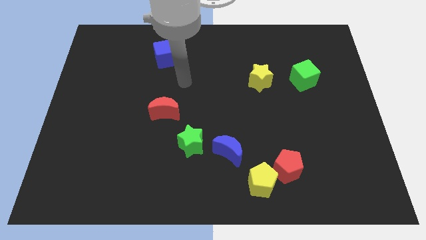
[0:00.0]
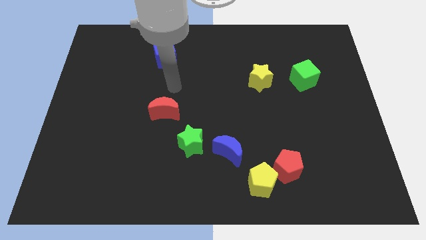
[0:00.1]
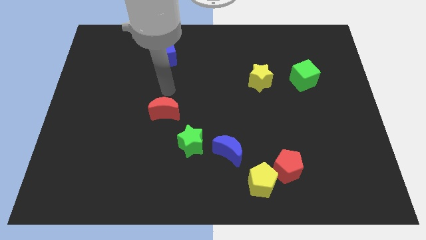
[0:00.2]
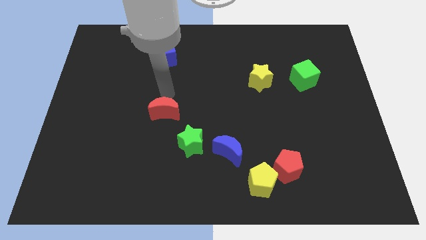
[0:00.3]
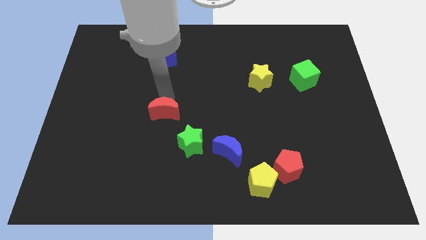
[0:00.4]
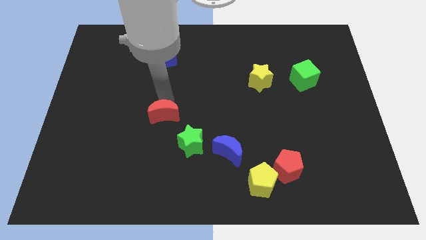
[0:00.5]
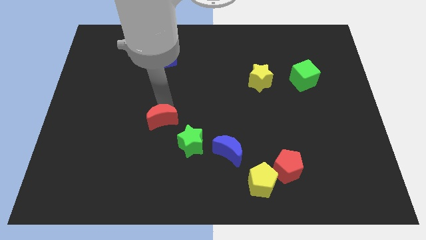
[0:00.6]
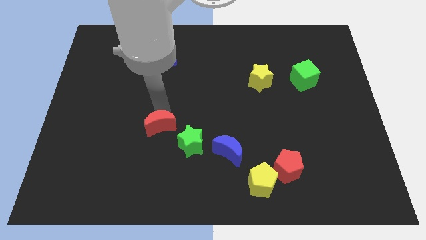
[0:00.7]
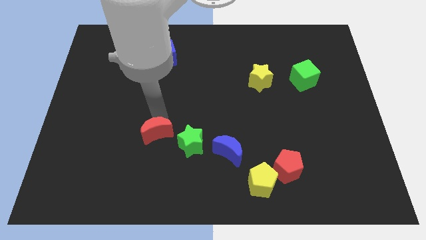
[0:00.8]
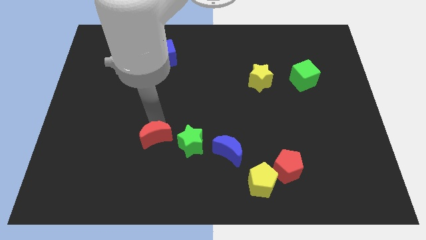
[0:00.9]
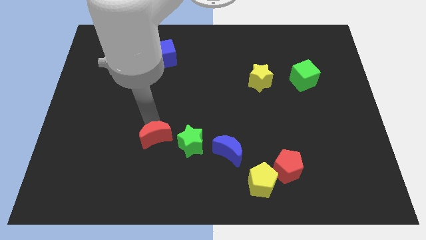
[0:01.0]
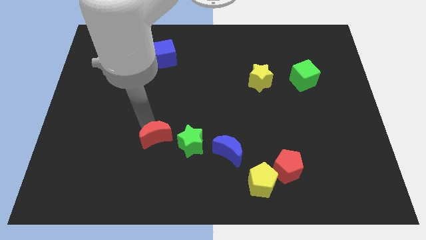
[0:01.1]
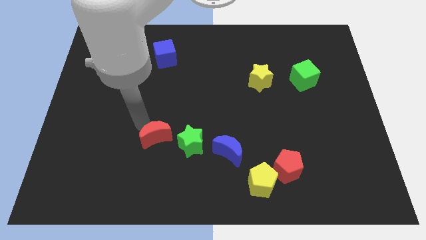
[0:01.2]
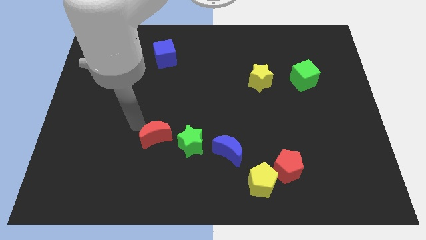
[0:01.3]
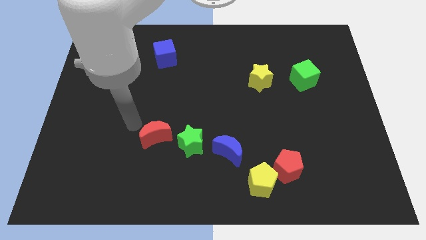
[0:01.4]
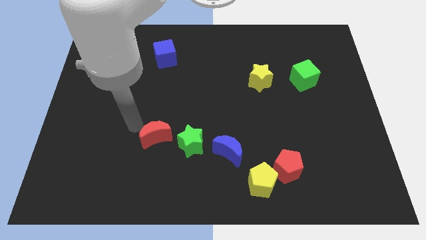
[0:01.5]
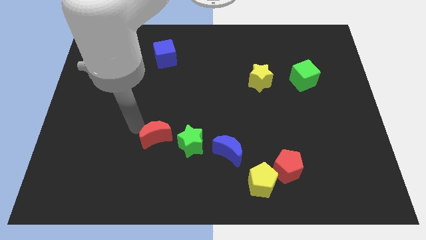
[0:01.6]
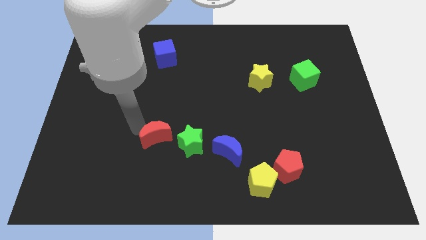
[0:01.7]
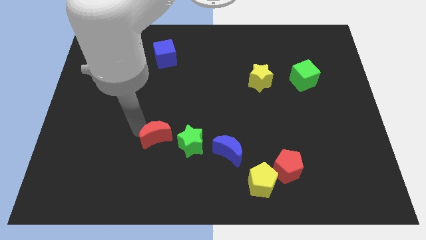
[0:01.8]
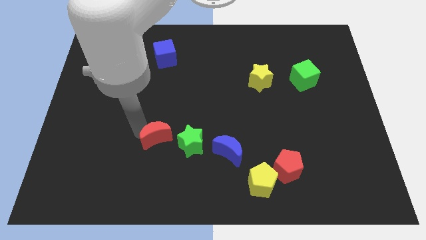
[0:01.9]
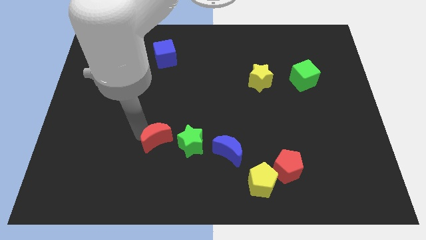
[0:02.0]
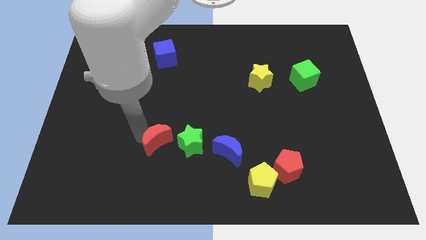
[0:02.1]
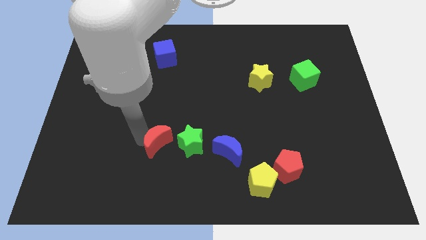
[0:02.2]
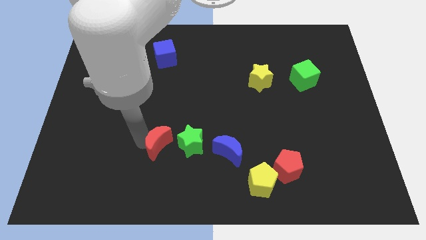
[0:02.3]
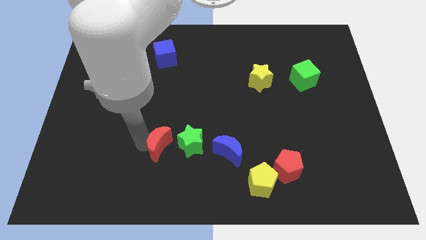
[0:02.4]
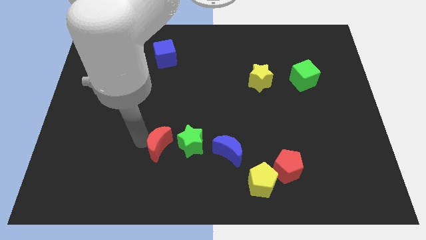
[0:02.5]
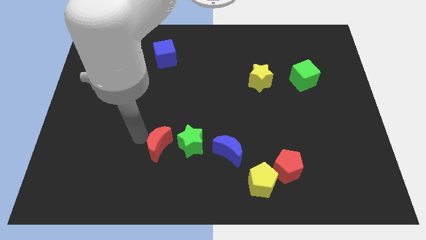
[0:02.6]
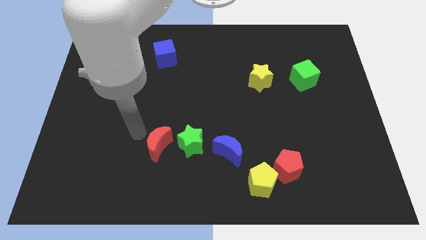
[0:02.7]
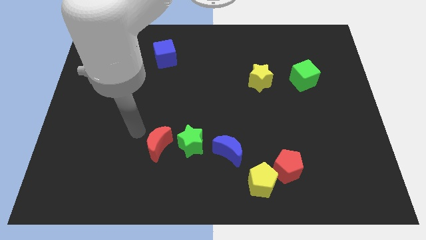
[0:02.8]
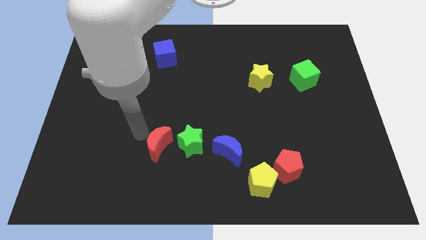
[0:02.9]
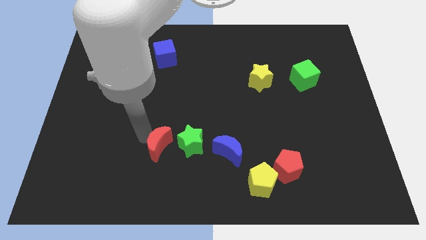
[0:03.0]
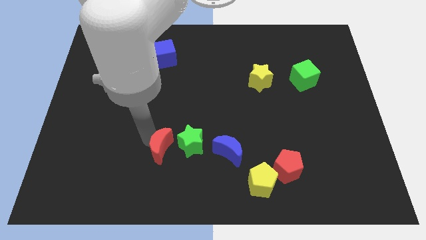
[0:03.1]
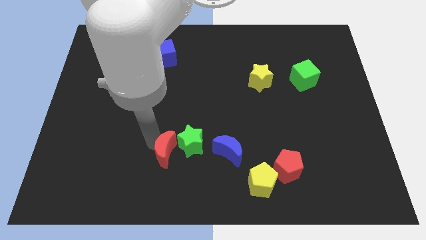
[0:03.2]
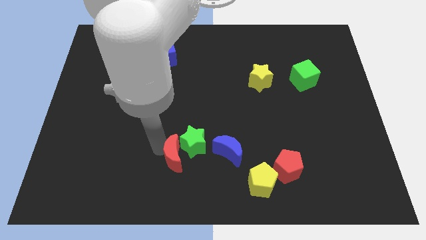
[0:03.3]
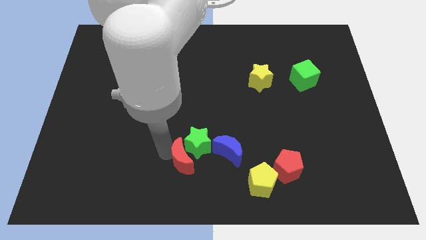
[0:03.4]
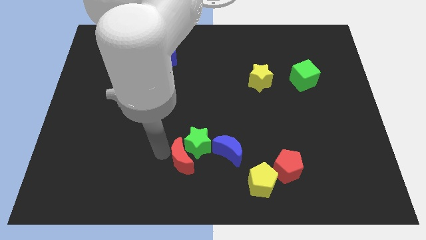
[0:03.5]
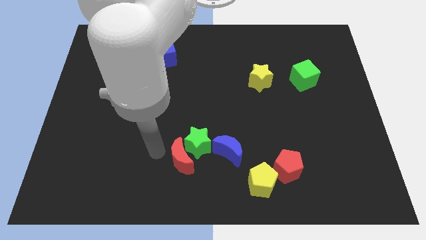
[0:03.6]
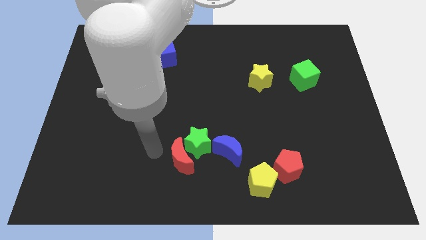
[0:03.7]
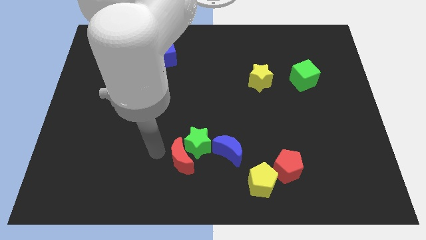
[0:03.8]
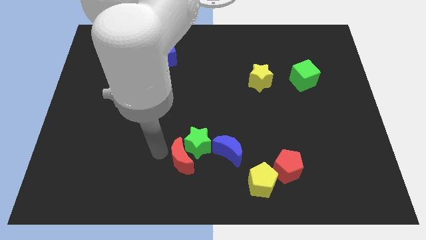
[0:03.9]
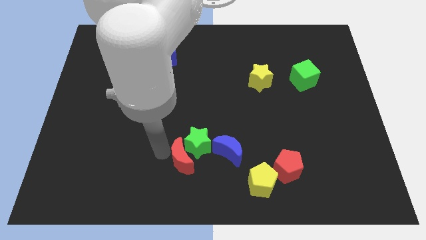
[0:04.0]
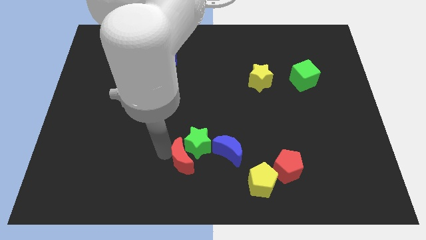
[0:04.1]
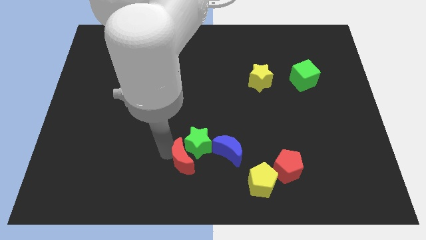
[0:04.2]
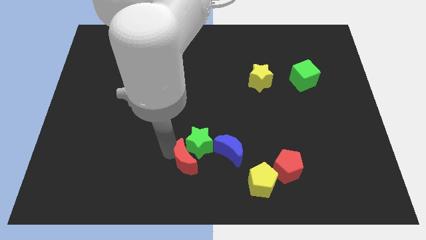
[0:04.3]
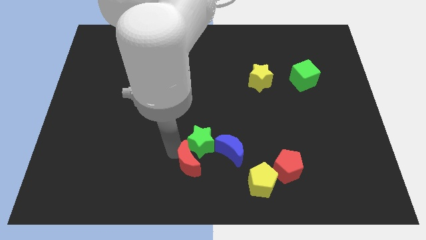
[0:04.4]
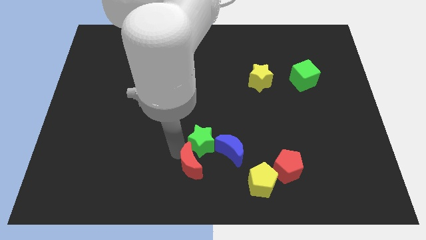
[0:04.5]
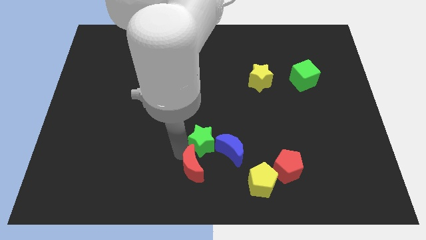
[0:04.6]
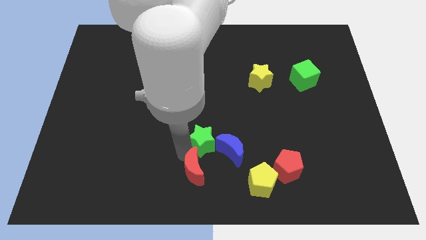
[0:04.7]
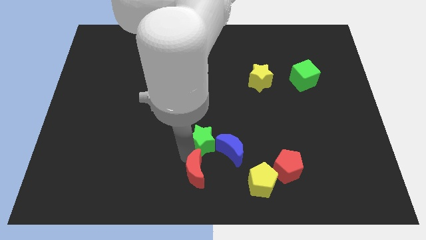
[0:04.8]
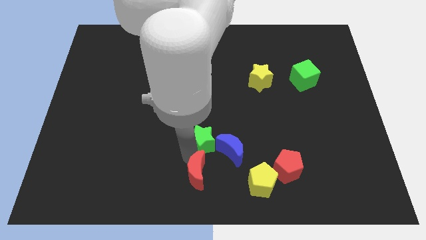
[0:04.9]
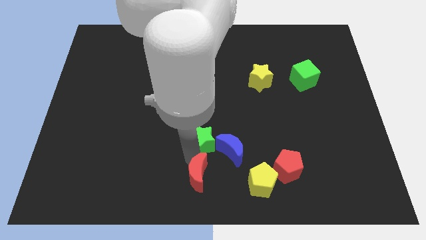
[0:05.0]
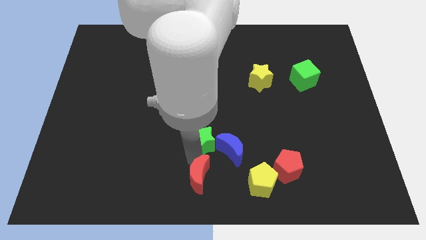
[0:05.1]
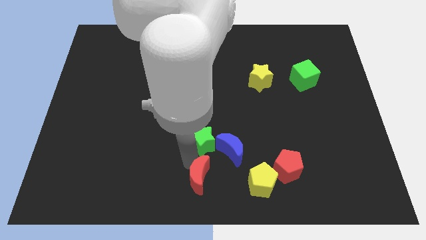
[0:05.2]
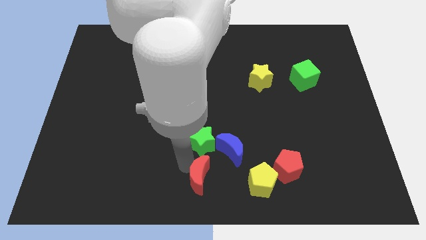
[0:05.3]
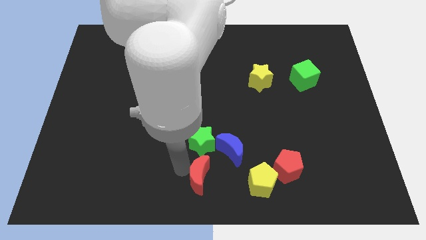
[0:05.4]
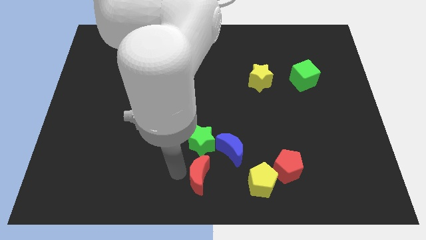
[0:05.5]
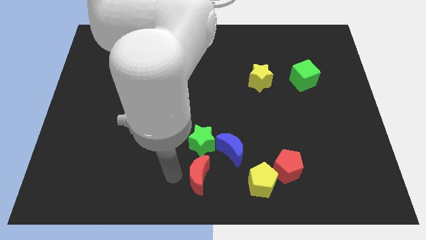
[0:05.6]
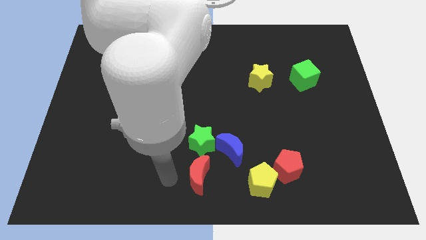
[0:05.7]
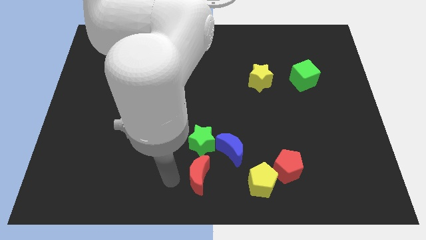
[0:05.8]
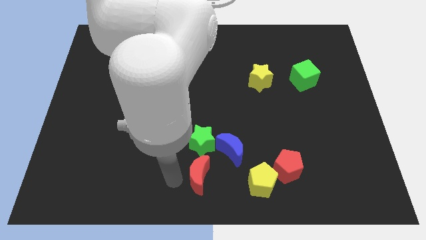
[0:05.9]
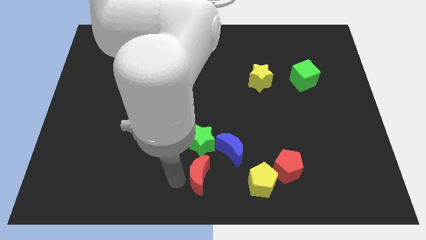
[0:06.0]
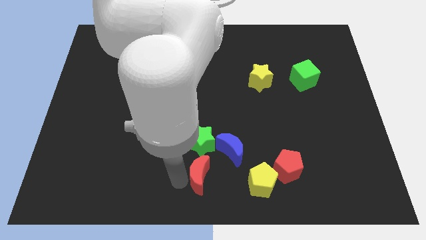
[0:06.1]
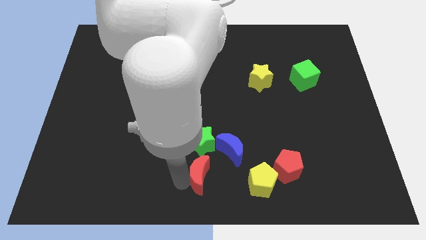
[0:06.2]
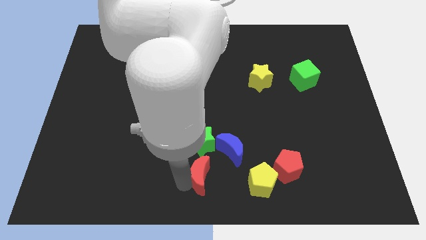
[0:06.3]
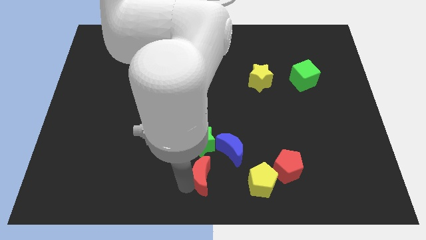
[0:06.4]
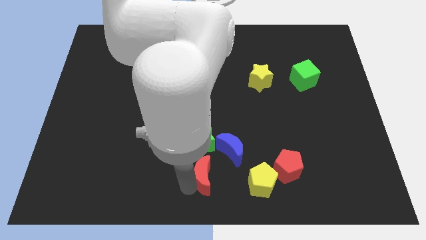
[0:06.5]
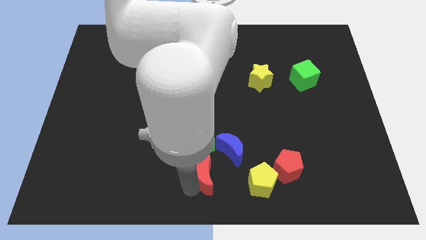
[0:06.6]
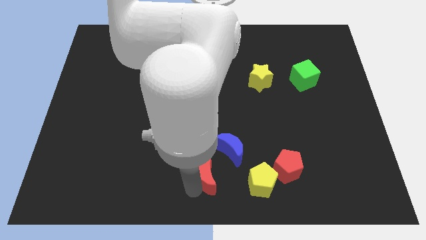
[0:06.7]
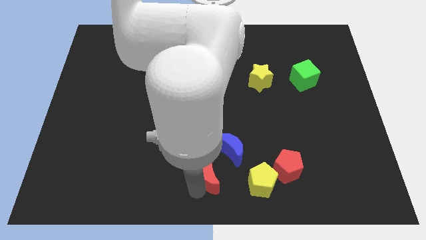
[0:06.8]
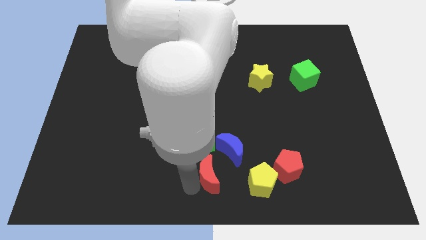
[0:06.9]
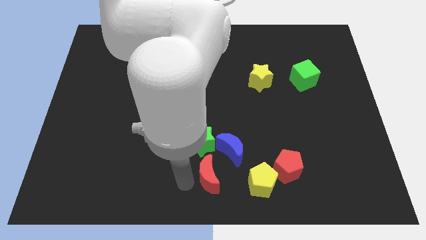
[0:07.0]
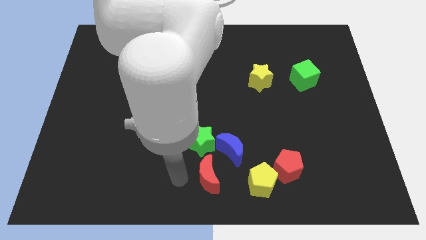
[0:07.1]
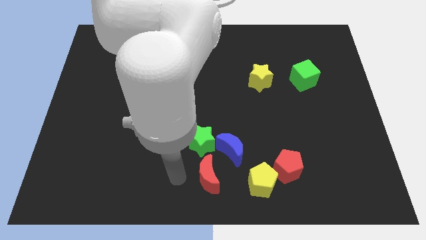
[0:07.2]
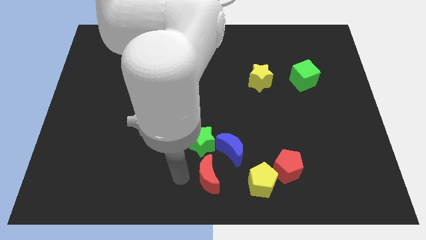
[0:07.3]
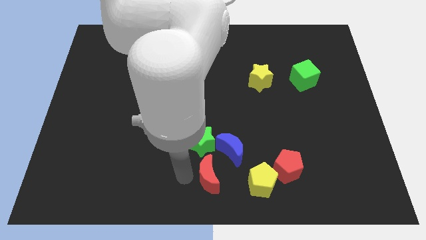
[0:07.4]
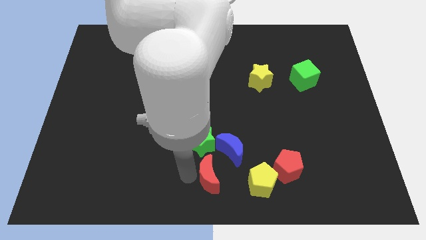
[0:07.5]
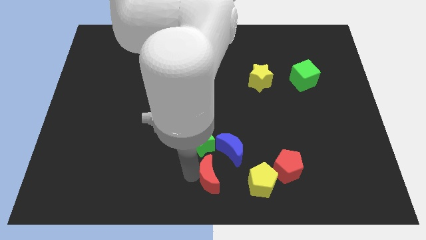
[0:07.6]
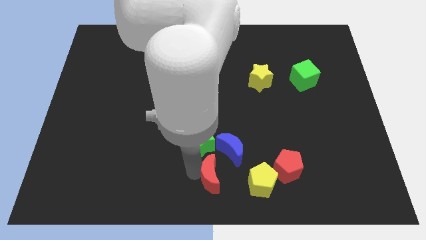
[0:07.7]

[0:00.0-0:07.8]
put the red moon to the bottom right side of the green star
